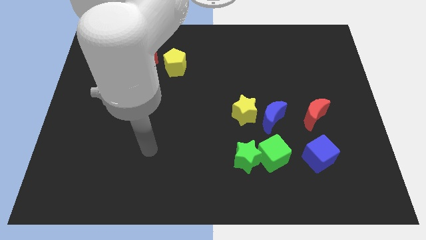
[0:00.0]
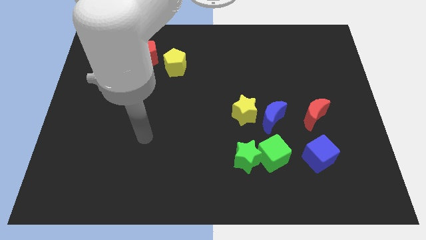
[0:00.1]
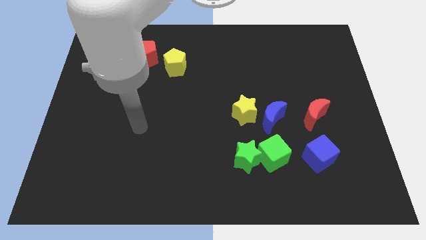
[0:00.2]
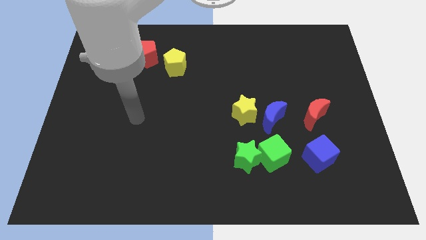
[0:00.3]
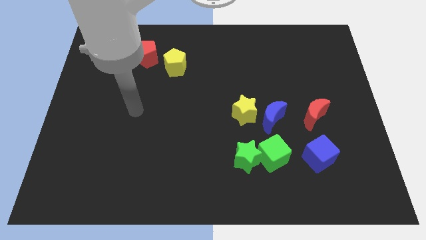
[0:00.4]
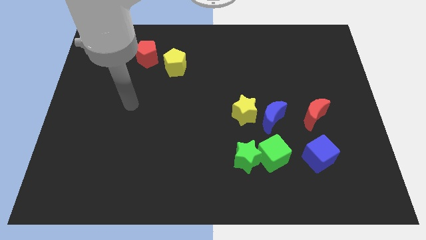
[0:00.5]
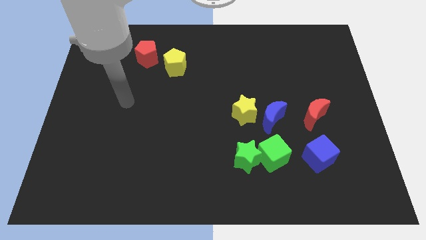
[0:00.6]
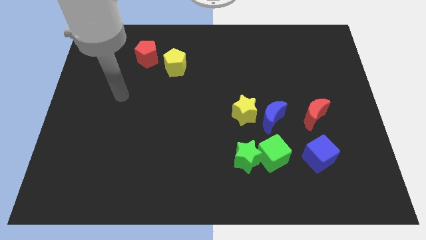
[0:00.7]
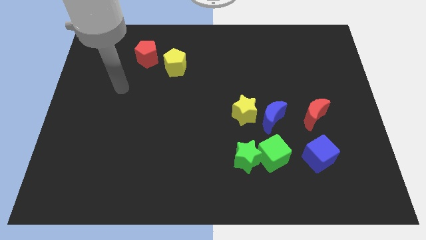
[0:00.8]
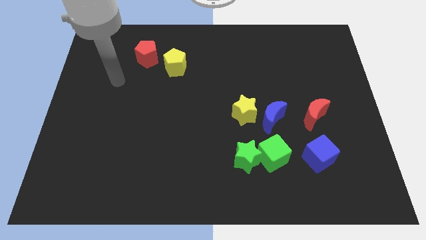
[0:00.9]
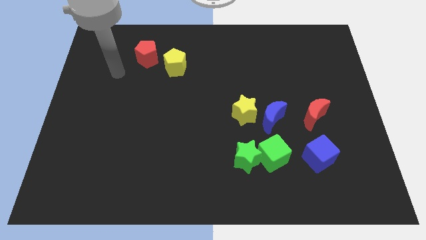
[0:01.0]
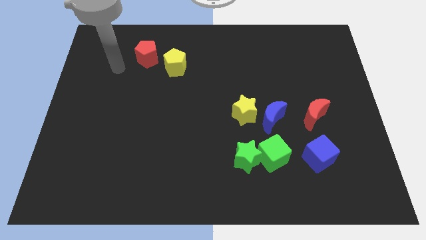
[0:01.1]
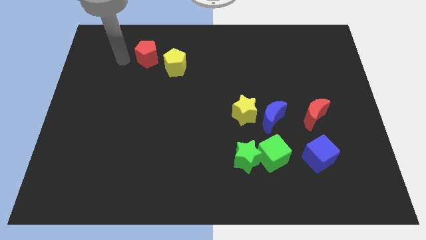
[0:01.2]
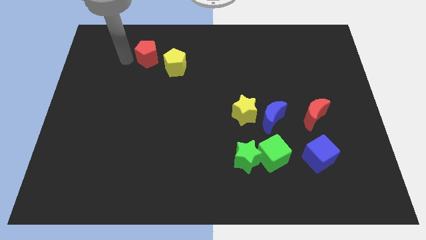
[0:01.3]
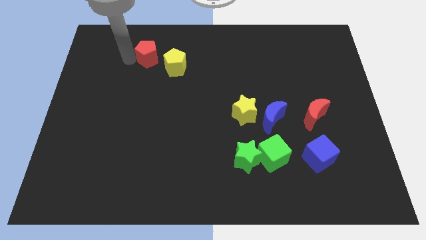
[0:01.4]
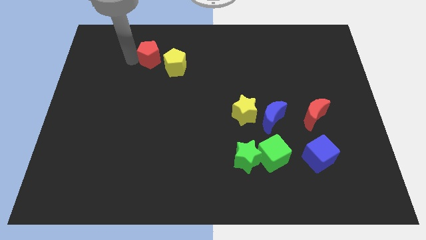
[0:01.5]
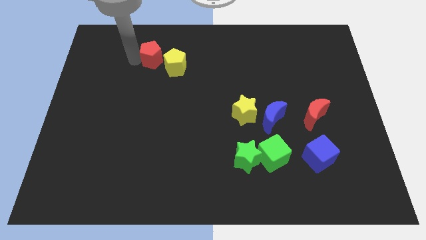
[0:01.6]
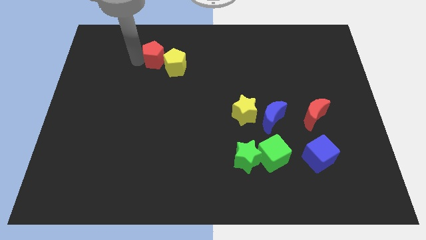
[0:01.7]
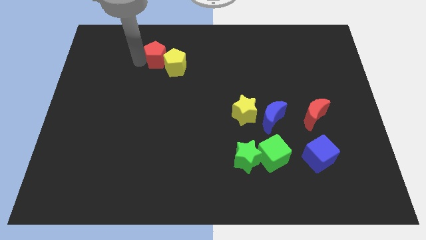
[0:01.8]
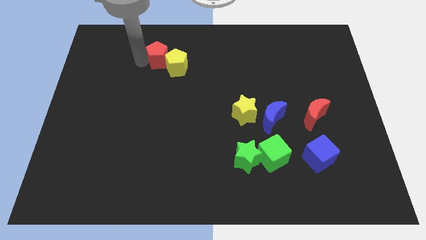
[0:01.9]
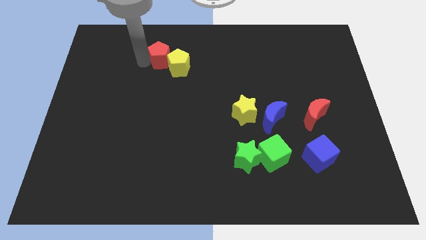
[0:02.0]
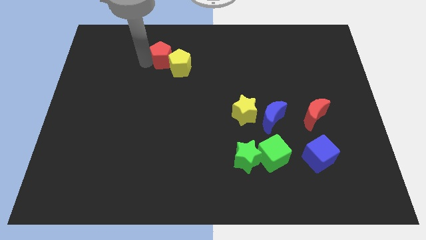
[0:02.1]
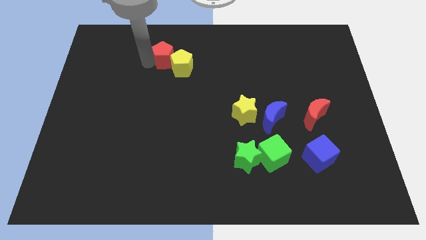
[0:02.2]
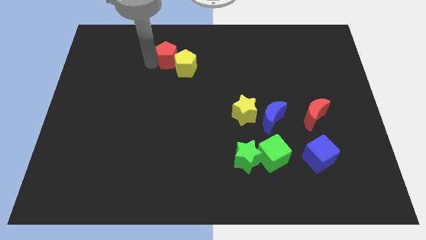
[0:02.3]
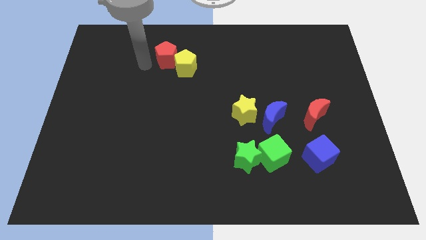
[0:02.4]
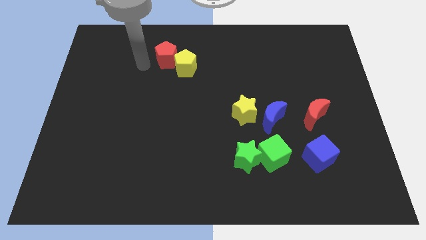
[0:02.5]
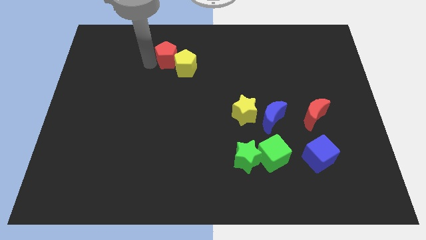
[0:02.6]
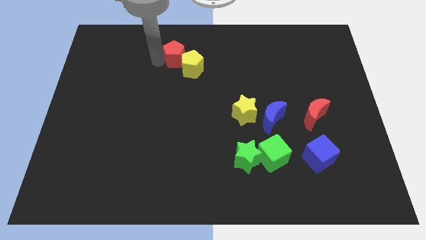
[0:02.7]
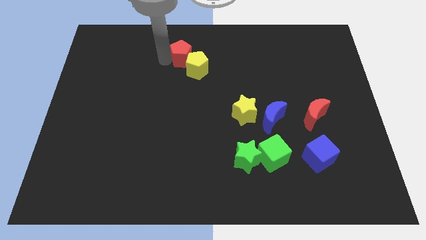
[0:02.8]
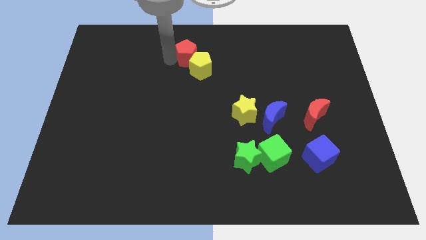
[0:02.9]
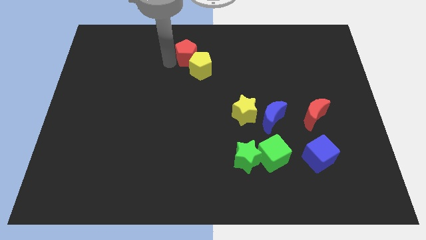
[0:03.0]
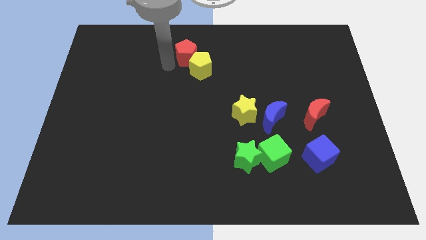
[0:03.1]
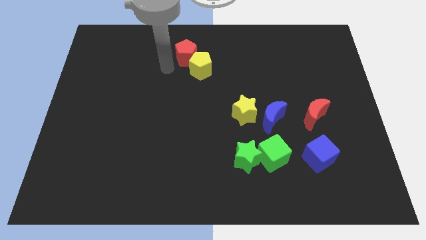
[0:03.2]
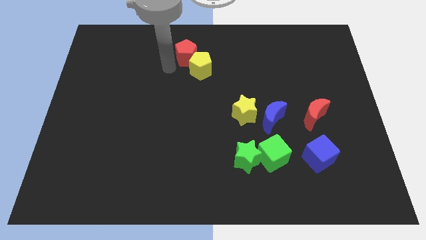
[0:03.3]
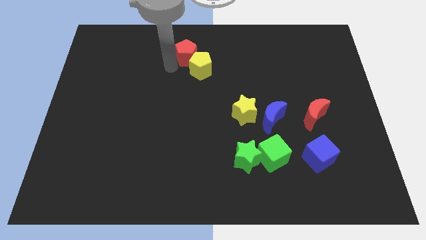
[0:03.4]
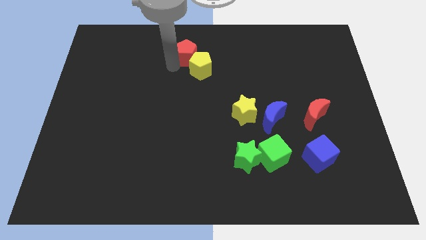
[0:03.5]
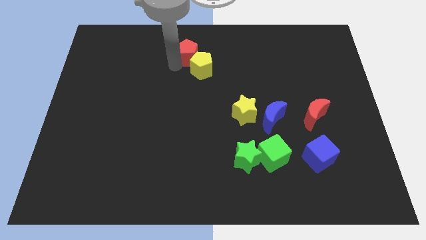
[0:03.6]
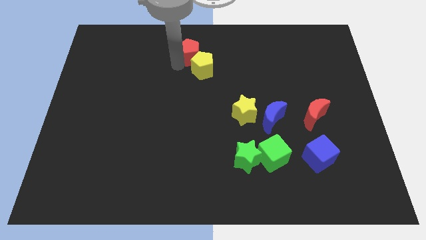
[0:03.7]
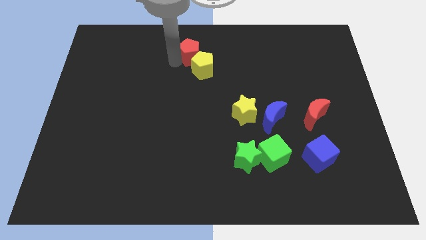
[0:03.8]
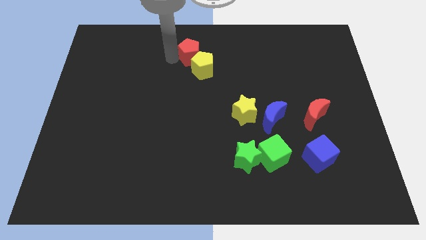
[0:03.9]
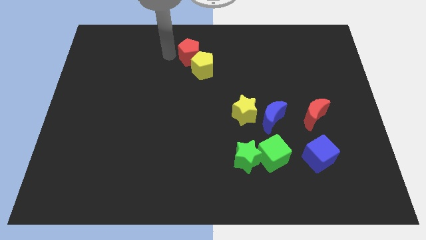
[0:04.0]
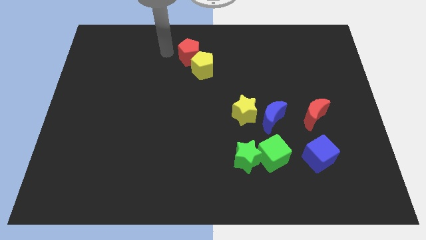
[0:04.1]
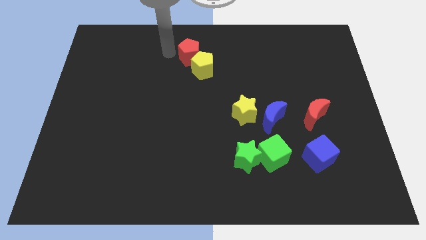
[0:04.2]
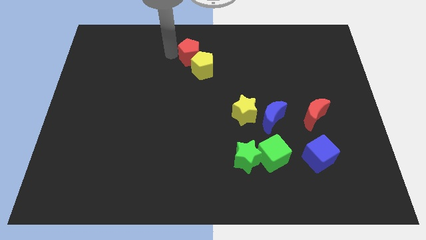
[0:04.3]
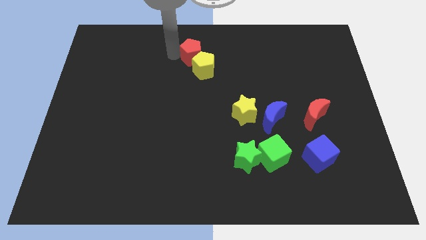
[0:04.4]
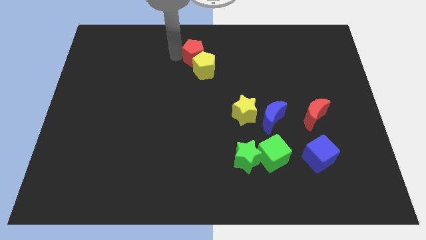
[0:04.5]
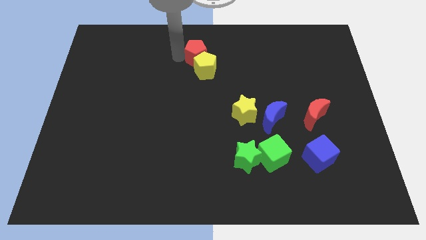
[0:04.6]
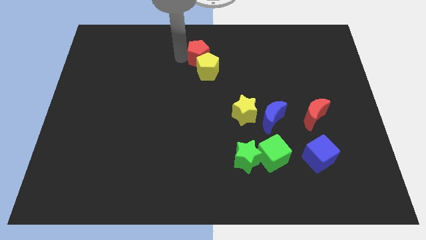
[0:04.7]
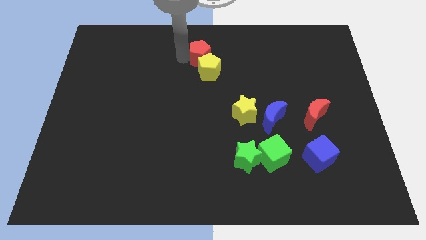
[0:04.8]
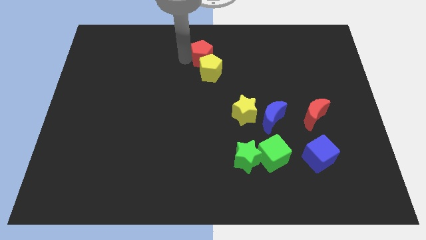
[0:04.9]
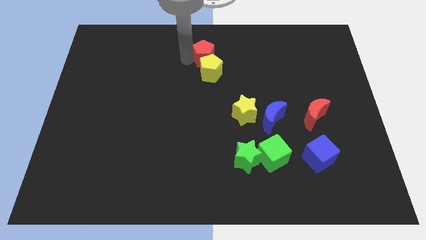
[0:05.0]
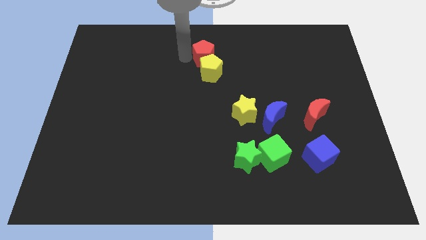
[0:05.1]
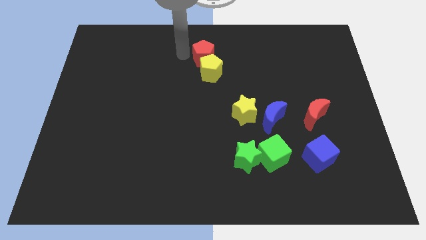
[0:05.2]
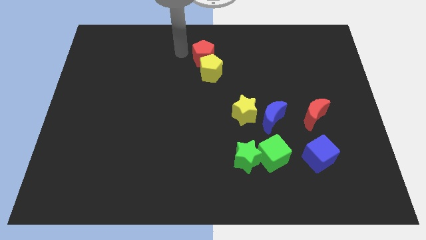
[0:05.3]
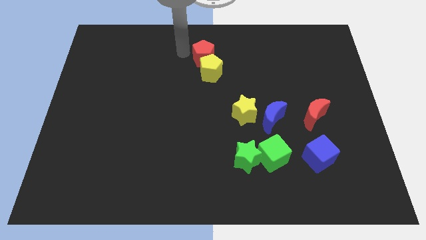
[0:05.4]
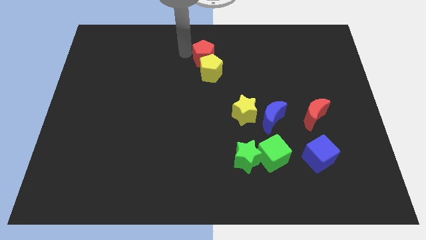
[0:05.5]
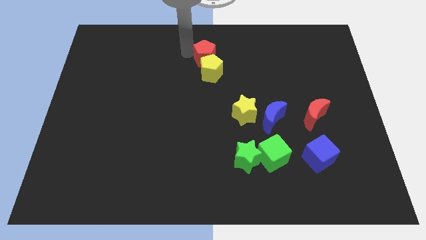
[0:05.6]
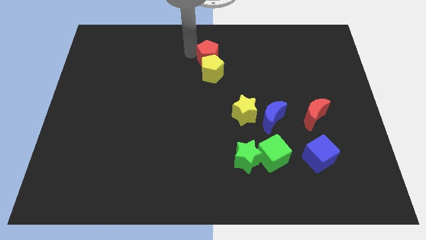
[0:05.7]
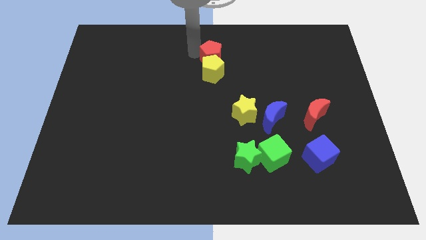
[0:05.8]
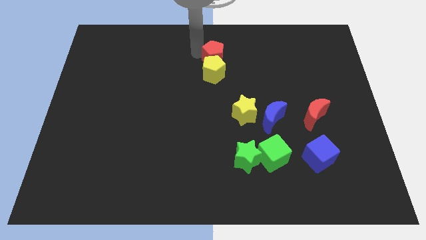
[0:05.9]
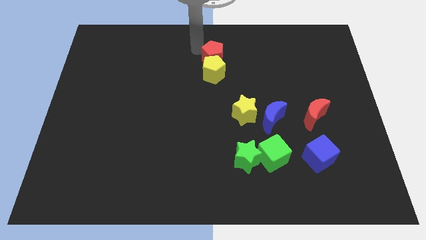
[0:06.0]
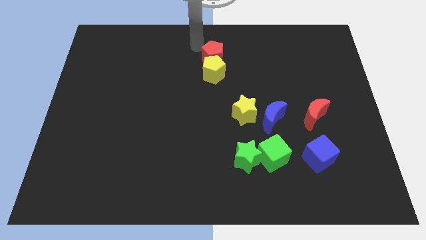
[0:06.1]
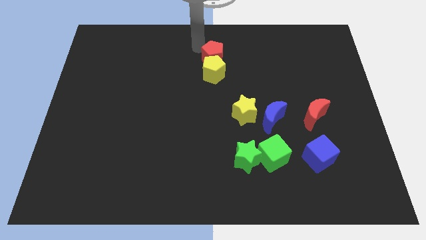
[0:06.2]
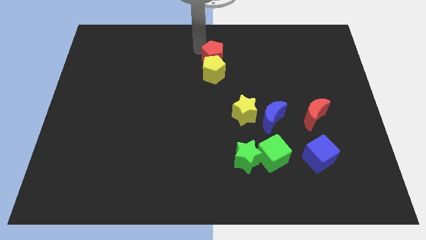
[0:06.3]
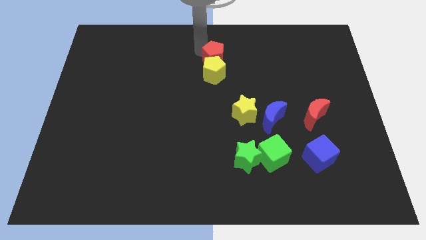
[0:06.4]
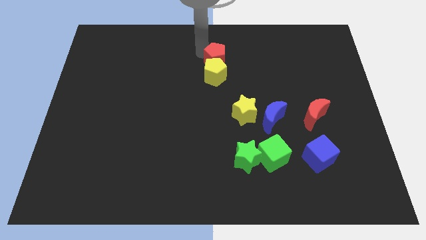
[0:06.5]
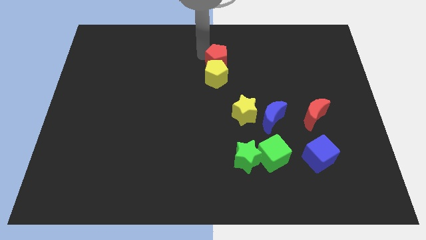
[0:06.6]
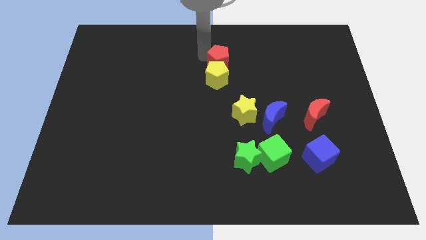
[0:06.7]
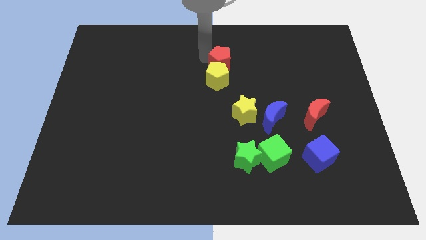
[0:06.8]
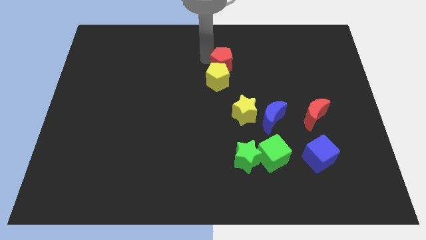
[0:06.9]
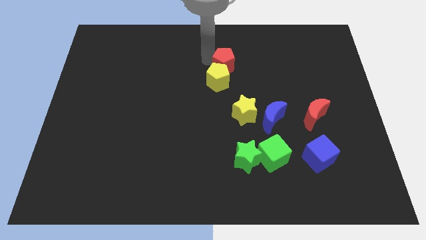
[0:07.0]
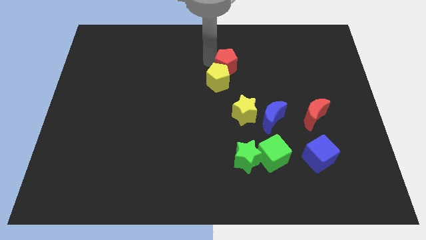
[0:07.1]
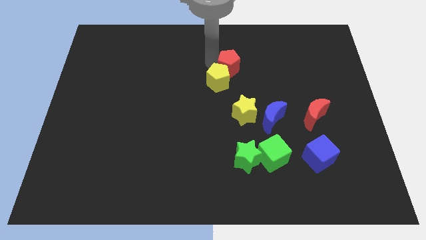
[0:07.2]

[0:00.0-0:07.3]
put the red pentagon above the yellow star
